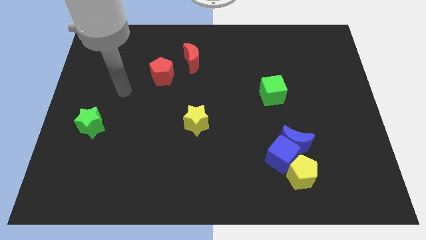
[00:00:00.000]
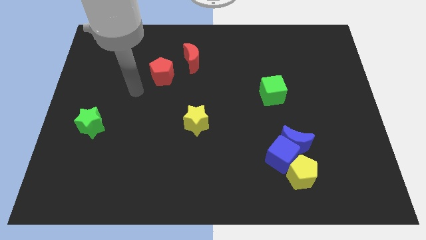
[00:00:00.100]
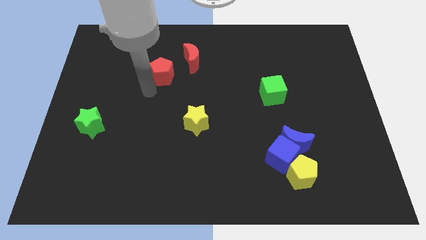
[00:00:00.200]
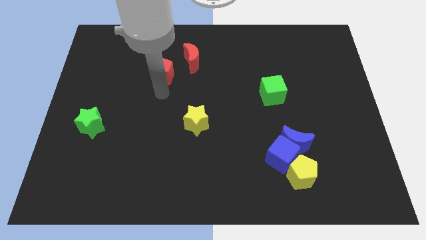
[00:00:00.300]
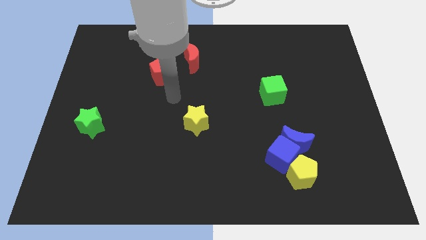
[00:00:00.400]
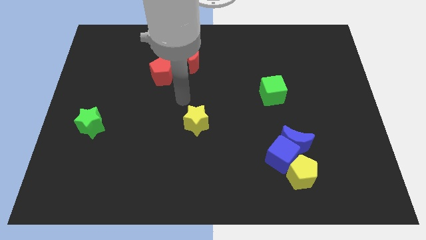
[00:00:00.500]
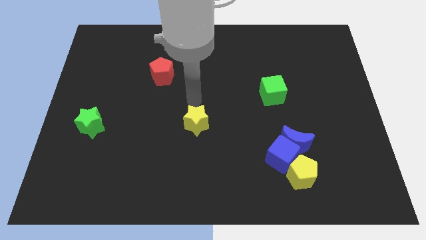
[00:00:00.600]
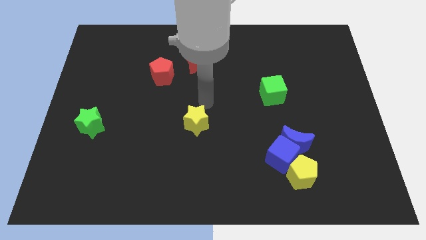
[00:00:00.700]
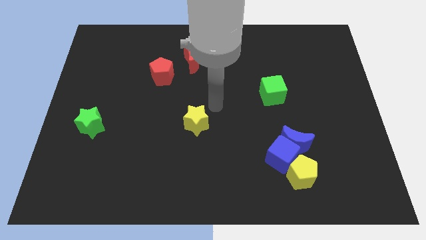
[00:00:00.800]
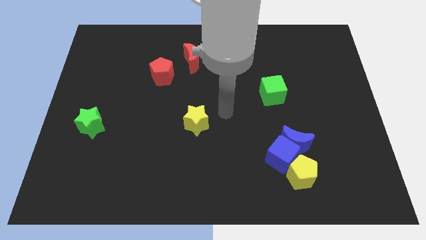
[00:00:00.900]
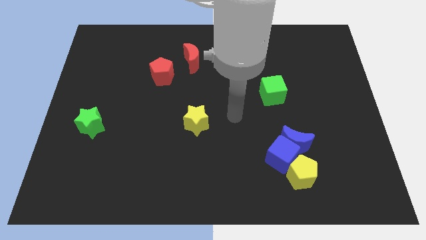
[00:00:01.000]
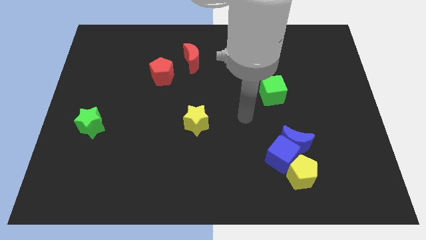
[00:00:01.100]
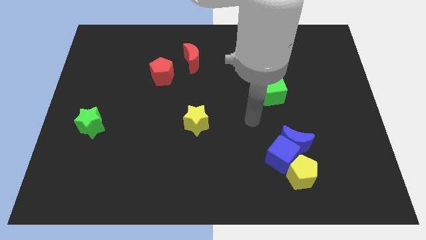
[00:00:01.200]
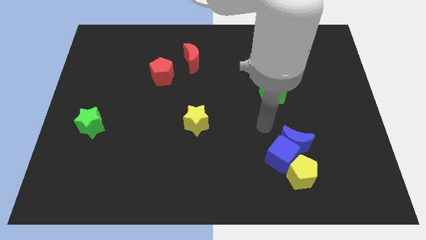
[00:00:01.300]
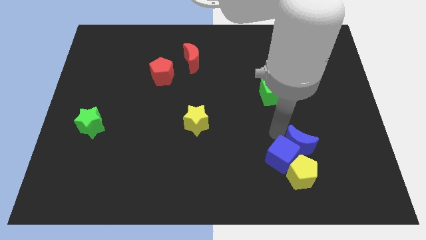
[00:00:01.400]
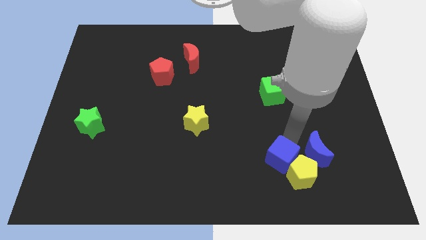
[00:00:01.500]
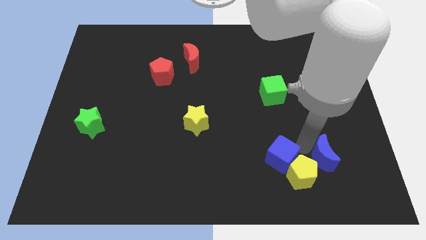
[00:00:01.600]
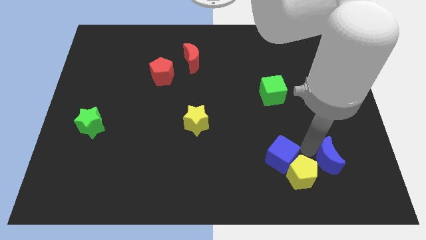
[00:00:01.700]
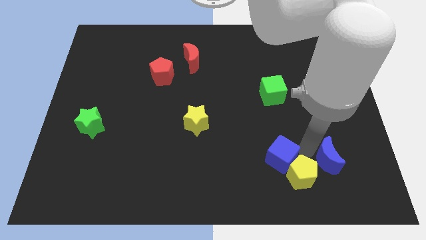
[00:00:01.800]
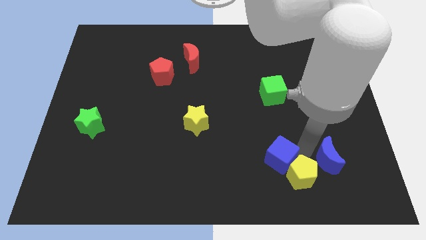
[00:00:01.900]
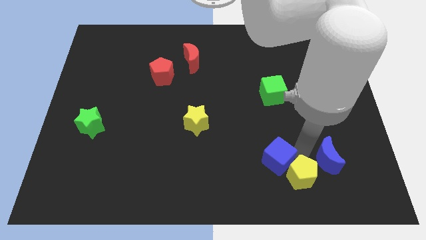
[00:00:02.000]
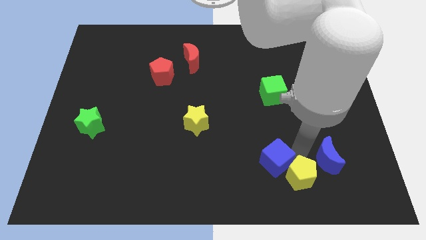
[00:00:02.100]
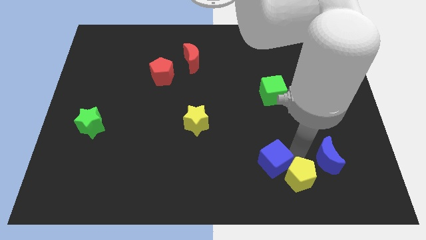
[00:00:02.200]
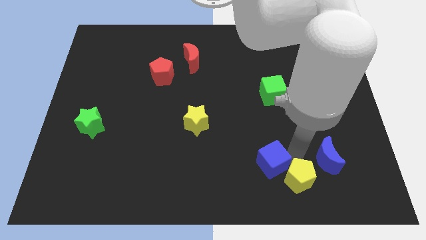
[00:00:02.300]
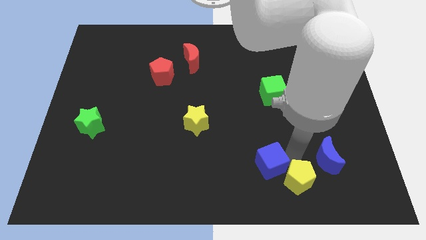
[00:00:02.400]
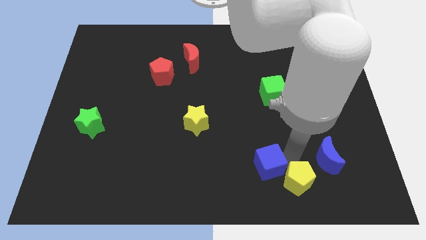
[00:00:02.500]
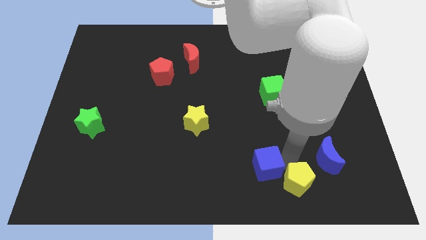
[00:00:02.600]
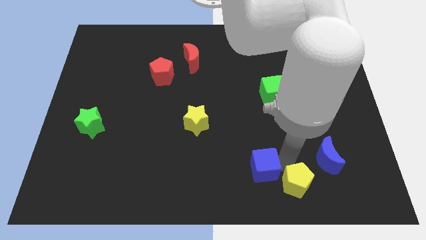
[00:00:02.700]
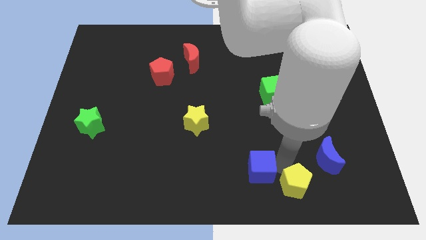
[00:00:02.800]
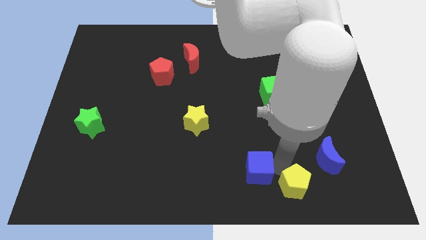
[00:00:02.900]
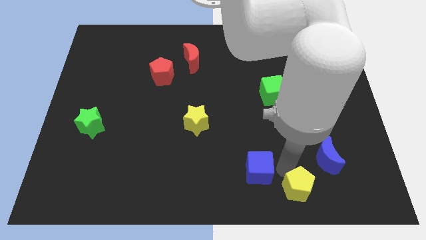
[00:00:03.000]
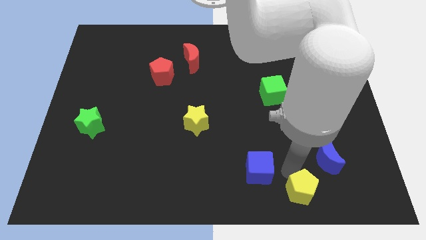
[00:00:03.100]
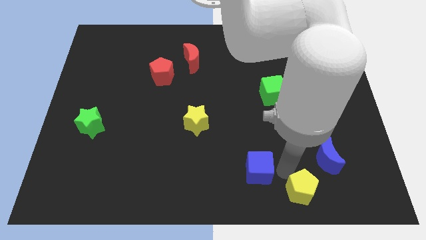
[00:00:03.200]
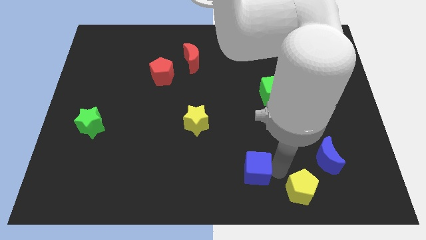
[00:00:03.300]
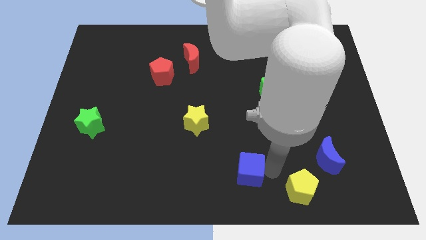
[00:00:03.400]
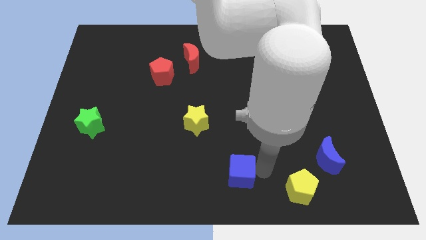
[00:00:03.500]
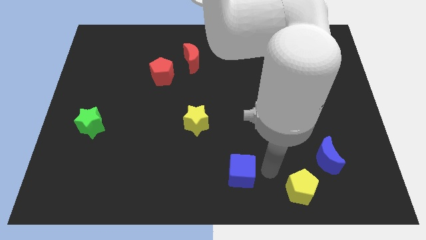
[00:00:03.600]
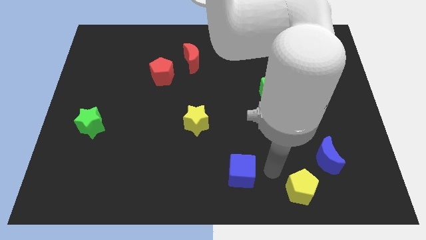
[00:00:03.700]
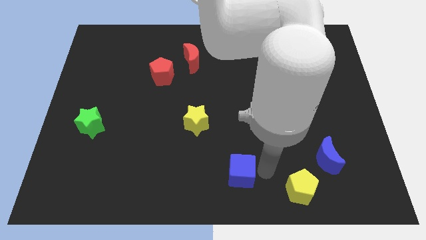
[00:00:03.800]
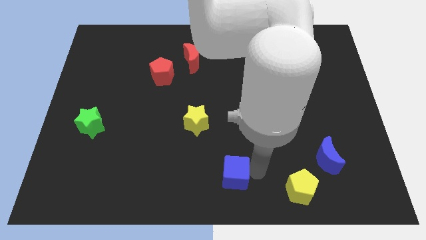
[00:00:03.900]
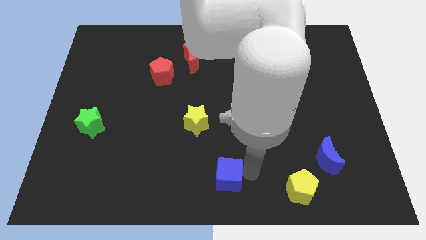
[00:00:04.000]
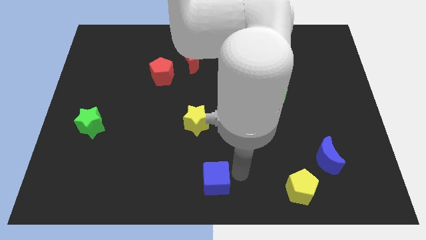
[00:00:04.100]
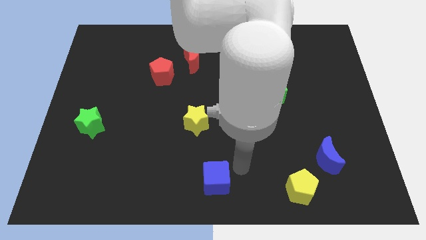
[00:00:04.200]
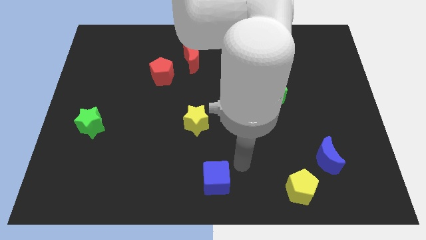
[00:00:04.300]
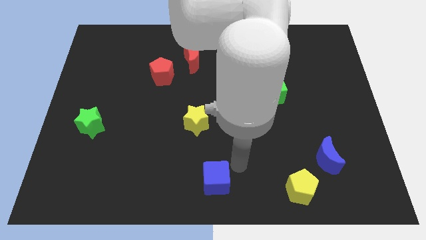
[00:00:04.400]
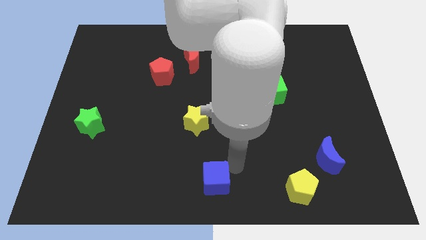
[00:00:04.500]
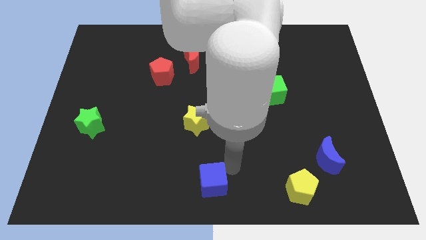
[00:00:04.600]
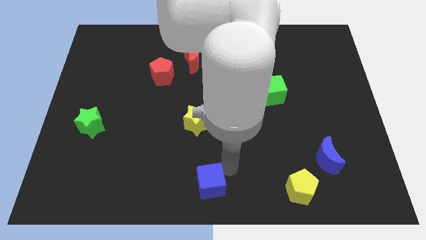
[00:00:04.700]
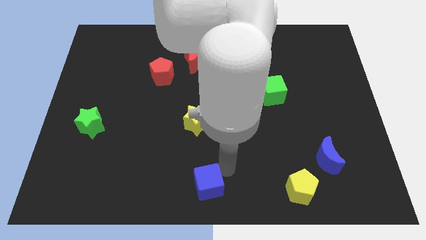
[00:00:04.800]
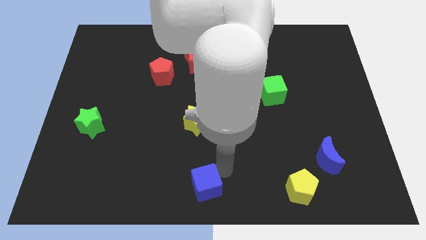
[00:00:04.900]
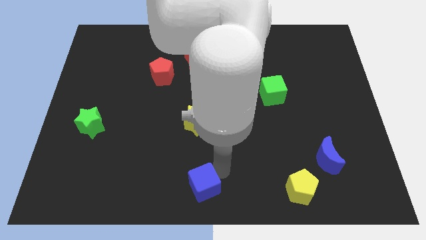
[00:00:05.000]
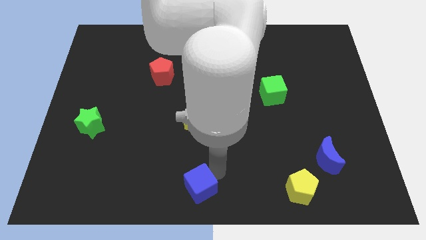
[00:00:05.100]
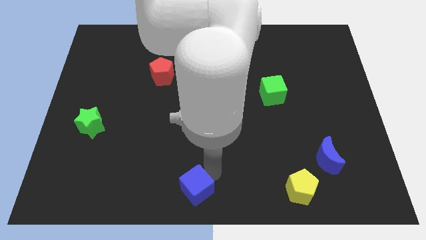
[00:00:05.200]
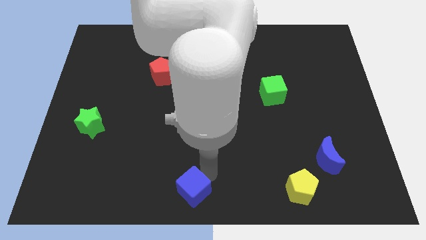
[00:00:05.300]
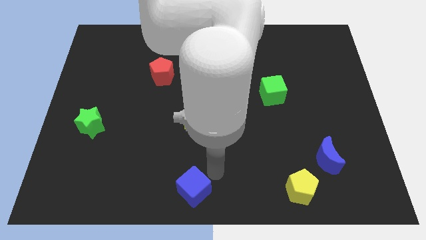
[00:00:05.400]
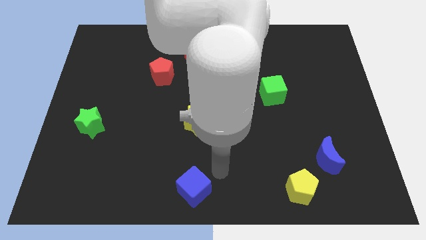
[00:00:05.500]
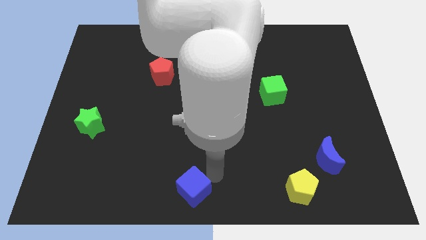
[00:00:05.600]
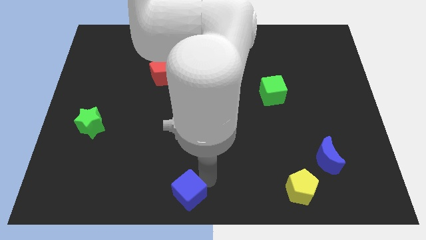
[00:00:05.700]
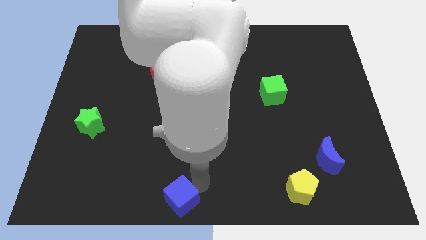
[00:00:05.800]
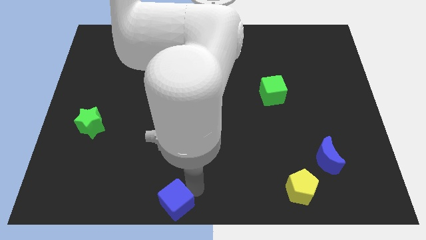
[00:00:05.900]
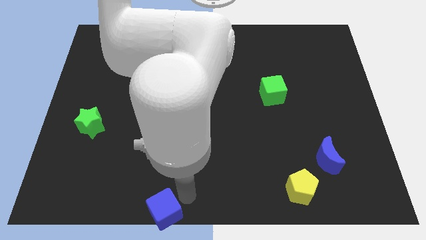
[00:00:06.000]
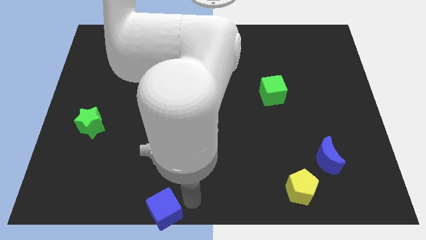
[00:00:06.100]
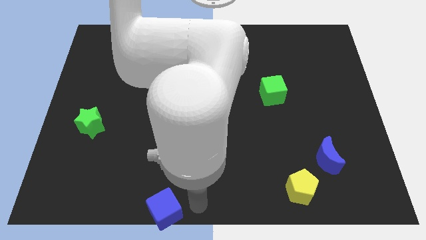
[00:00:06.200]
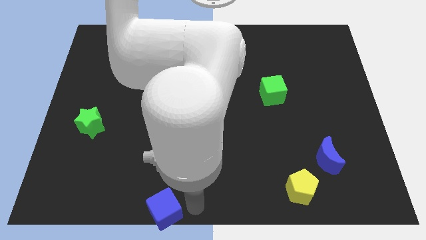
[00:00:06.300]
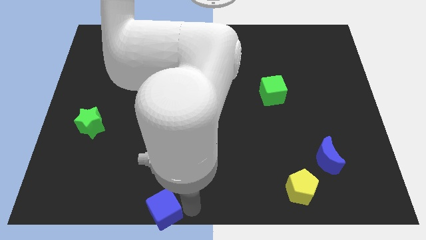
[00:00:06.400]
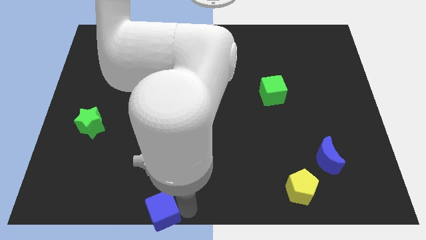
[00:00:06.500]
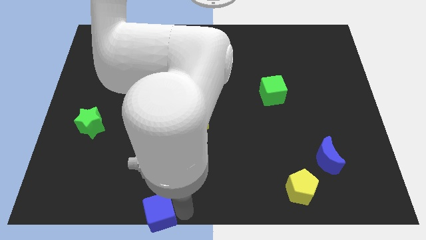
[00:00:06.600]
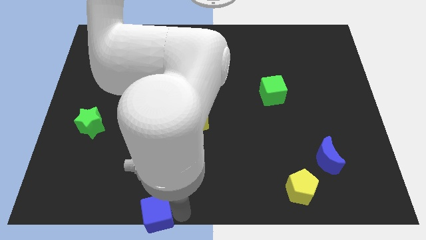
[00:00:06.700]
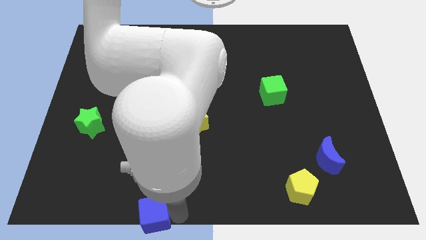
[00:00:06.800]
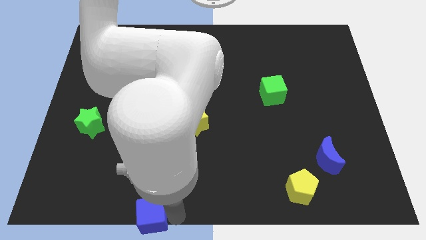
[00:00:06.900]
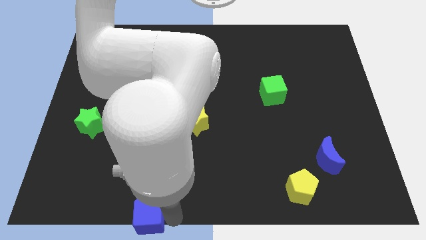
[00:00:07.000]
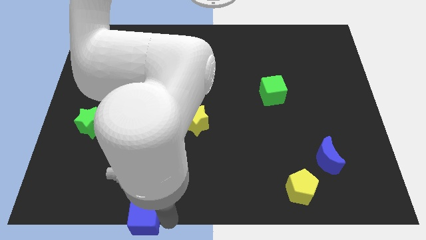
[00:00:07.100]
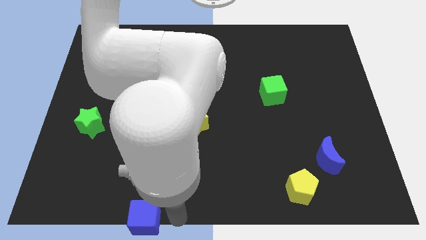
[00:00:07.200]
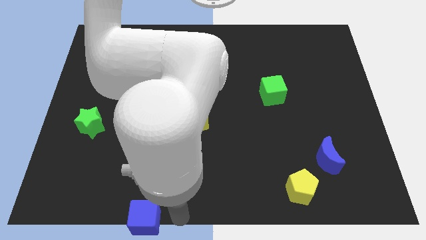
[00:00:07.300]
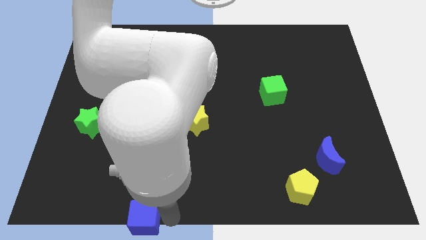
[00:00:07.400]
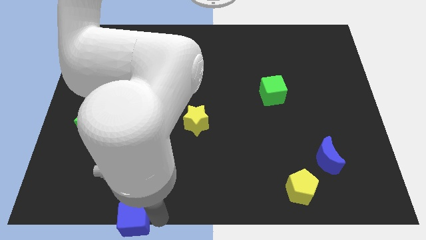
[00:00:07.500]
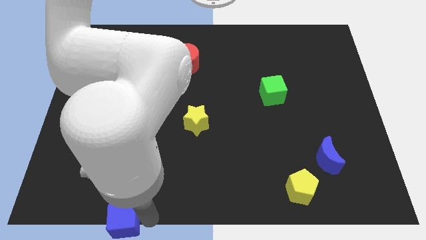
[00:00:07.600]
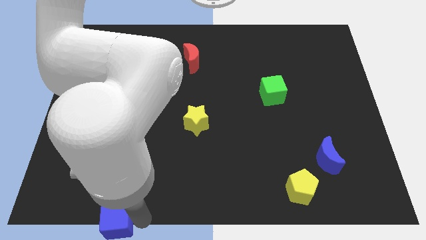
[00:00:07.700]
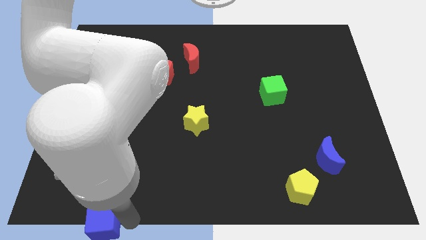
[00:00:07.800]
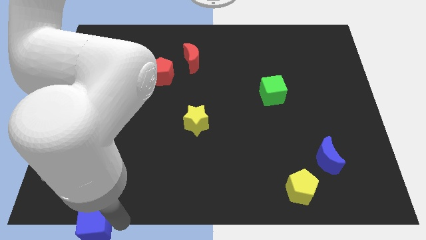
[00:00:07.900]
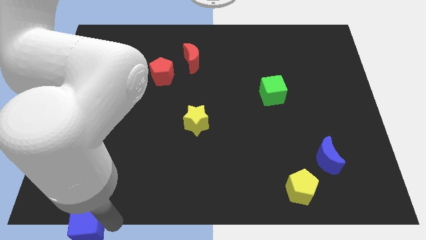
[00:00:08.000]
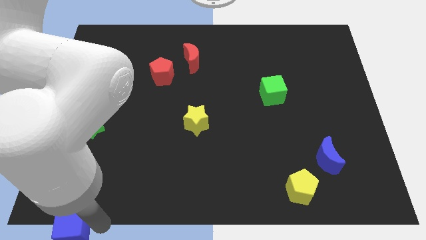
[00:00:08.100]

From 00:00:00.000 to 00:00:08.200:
put the blue cube to the bottom left of the board
